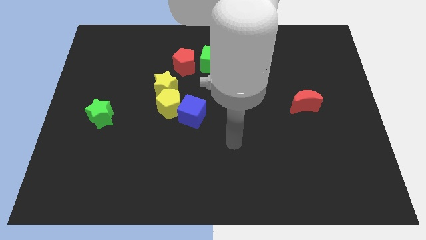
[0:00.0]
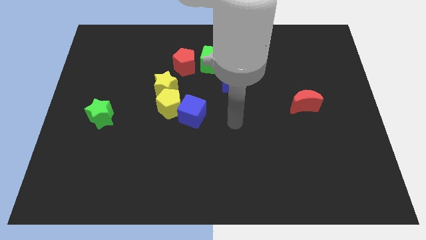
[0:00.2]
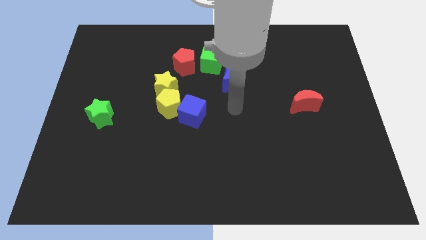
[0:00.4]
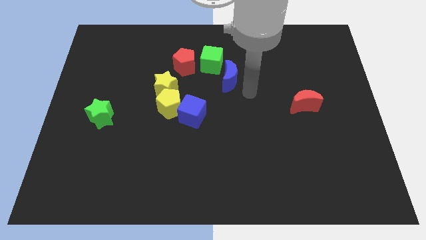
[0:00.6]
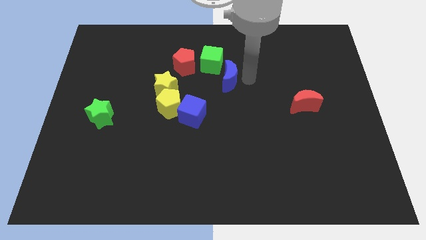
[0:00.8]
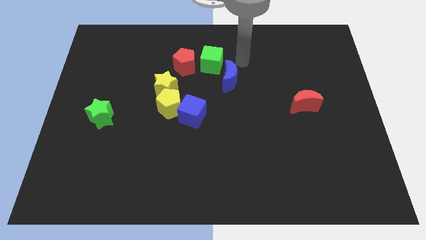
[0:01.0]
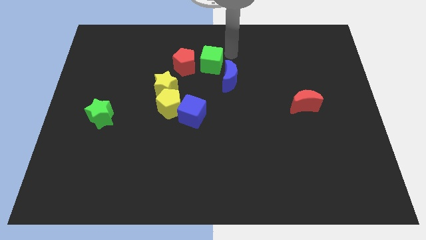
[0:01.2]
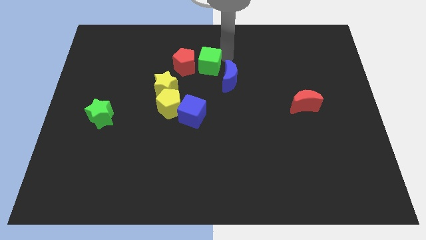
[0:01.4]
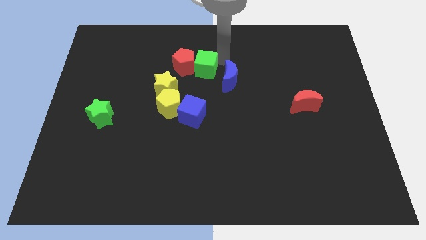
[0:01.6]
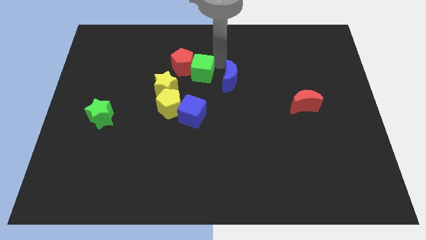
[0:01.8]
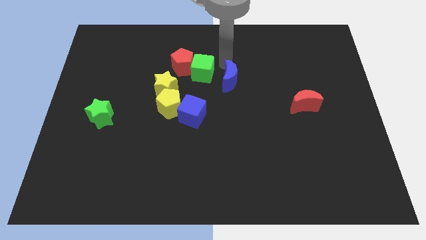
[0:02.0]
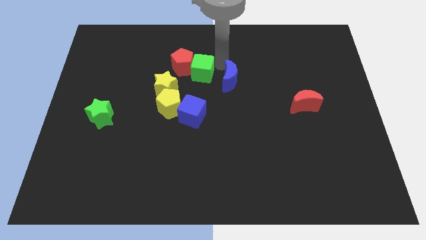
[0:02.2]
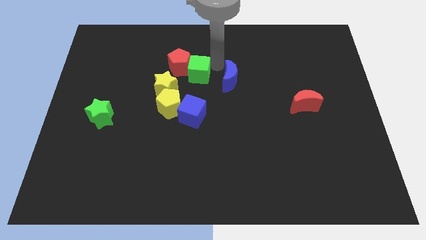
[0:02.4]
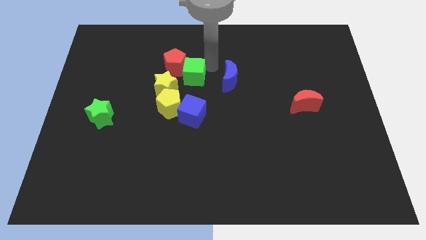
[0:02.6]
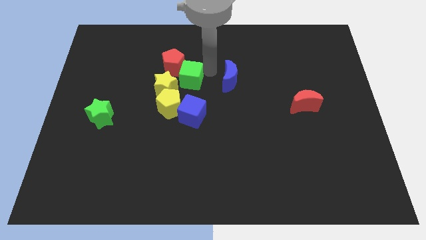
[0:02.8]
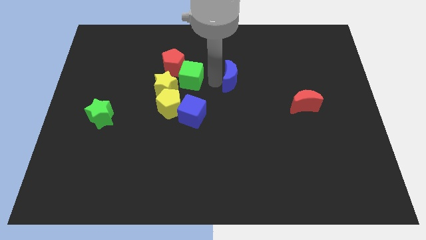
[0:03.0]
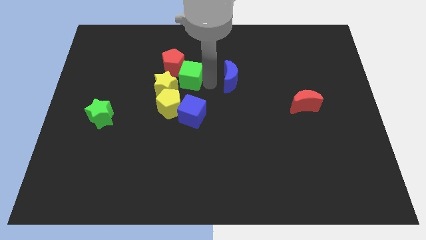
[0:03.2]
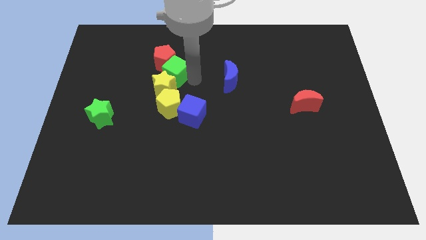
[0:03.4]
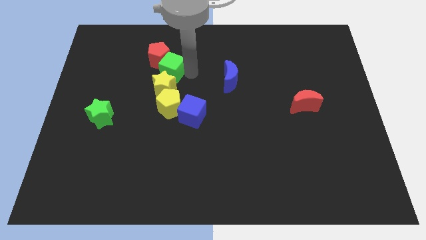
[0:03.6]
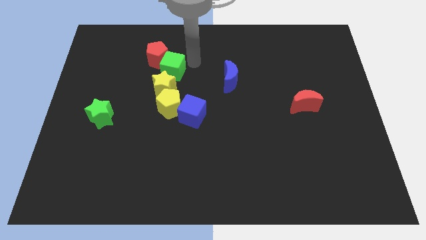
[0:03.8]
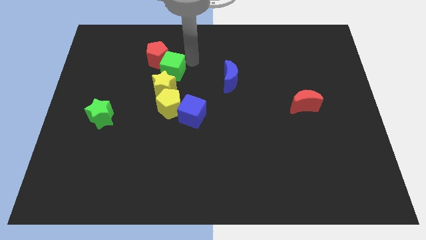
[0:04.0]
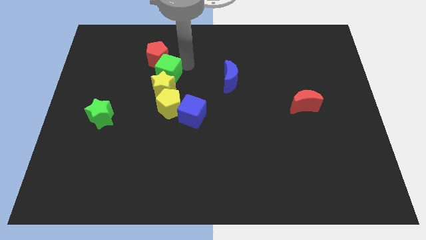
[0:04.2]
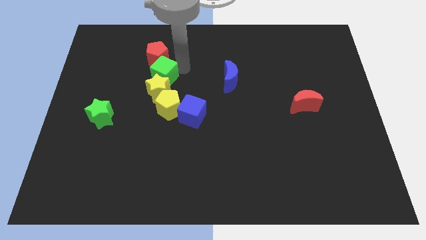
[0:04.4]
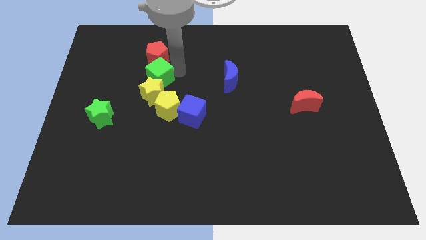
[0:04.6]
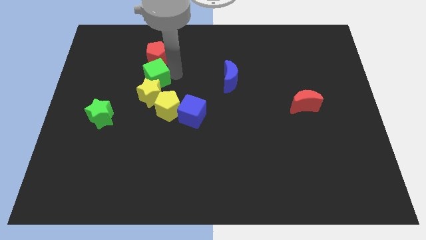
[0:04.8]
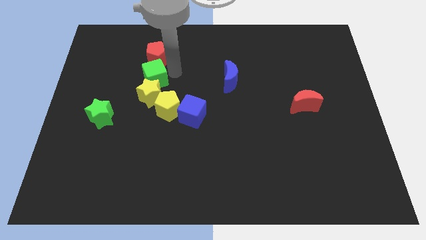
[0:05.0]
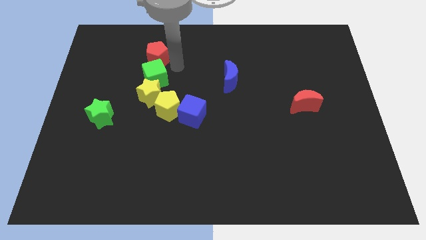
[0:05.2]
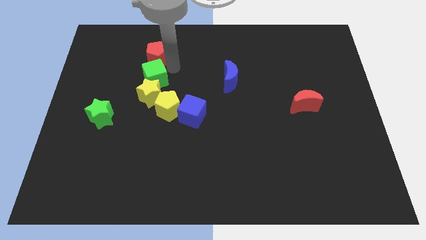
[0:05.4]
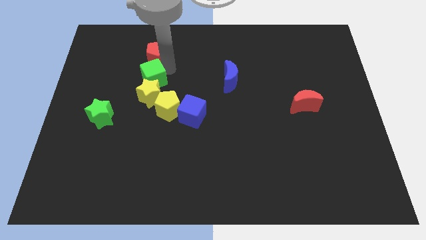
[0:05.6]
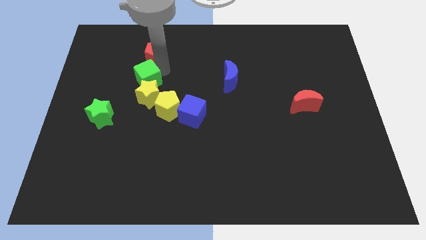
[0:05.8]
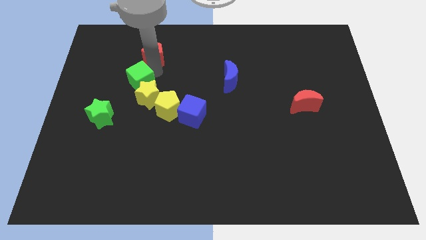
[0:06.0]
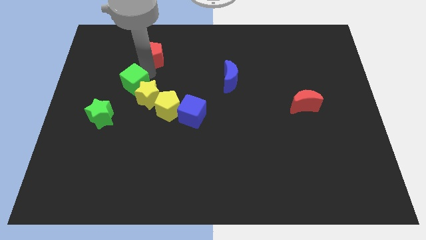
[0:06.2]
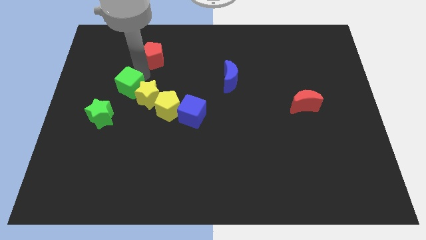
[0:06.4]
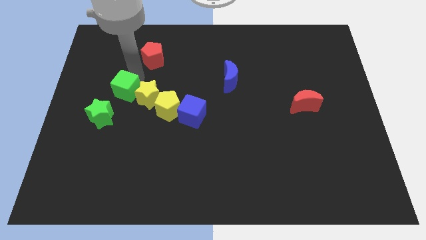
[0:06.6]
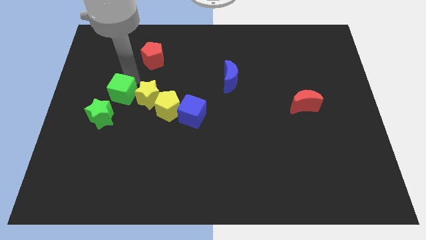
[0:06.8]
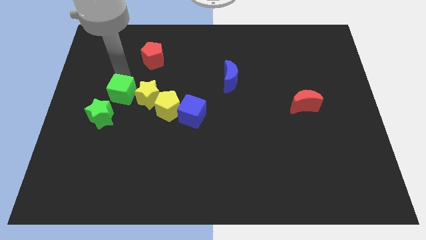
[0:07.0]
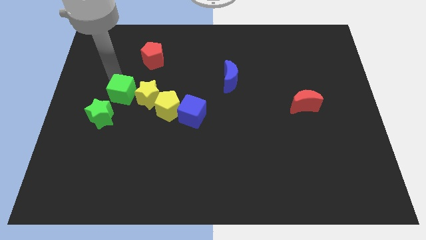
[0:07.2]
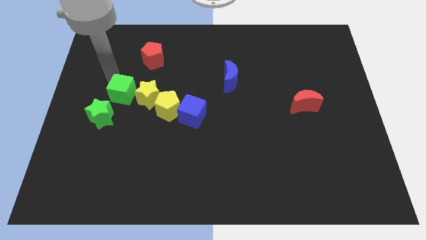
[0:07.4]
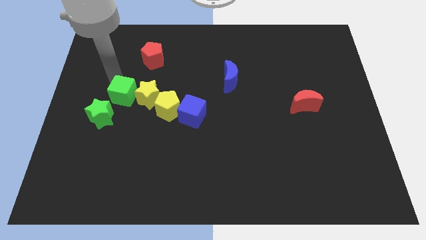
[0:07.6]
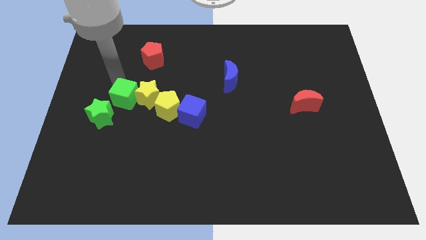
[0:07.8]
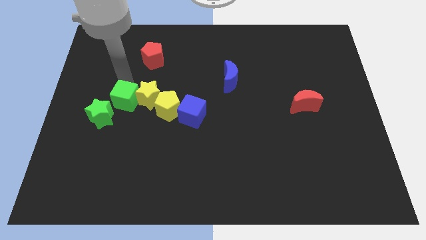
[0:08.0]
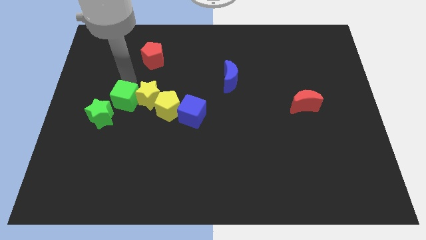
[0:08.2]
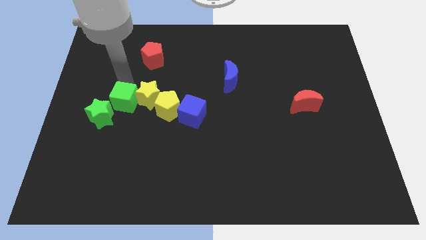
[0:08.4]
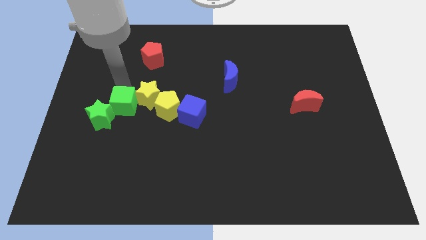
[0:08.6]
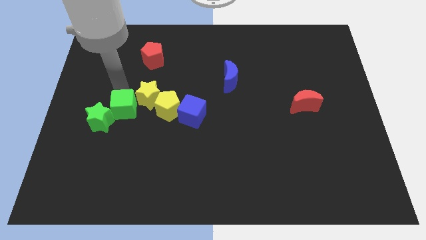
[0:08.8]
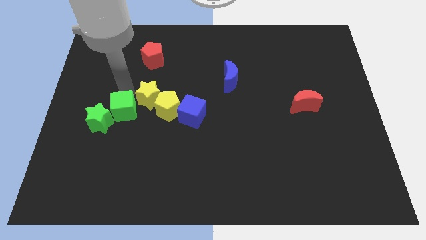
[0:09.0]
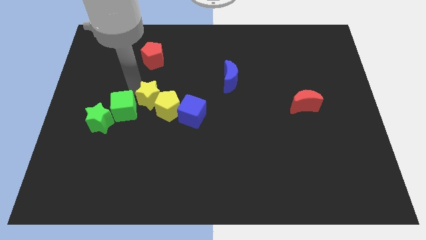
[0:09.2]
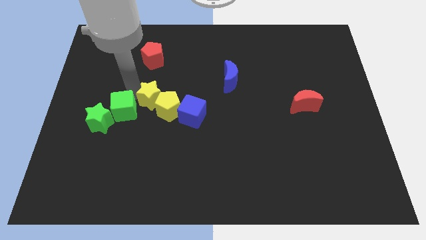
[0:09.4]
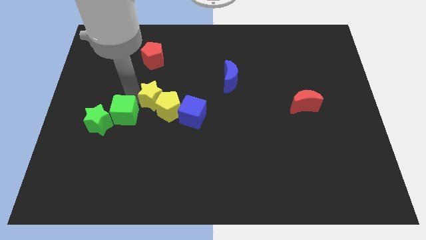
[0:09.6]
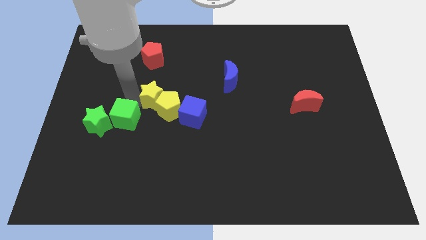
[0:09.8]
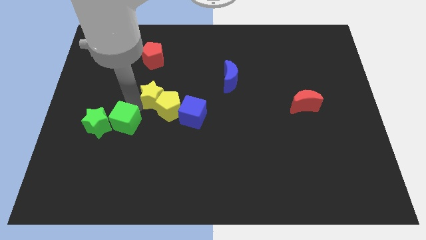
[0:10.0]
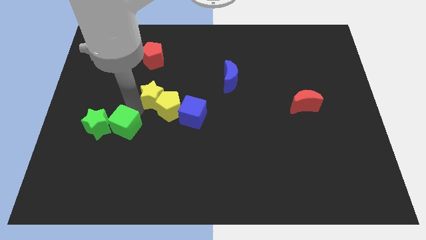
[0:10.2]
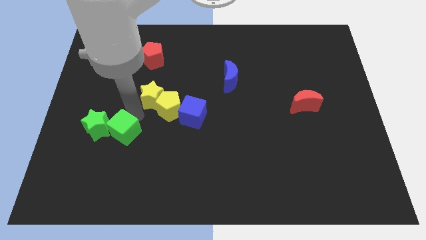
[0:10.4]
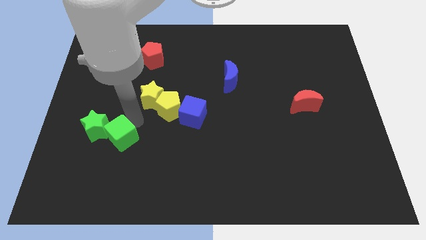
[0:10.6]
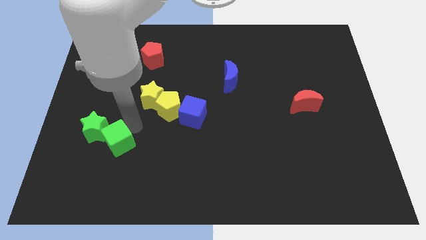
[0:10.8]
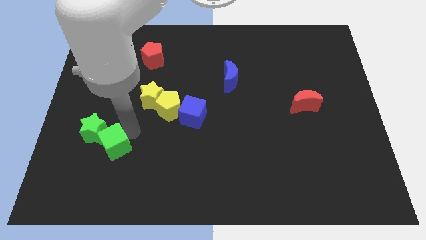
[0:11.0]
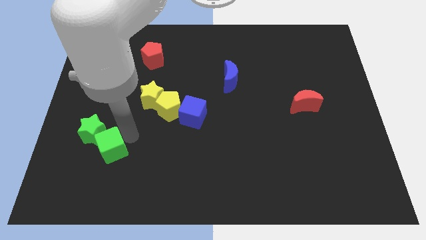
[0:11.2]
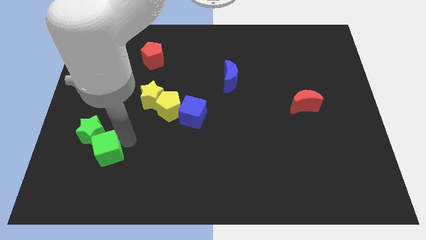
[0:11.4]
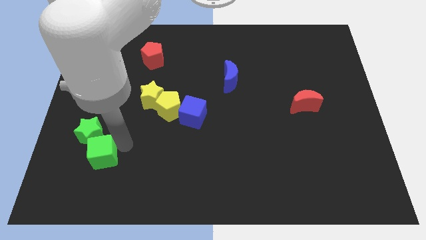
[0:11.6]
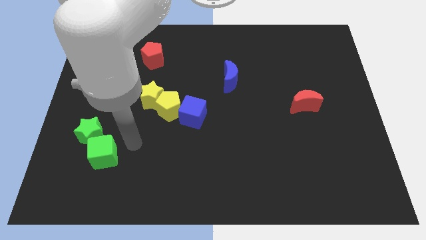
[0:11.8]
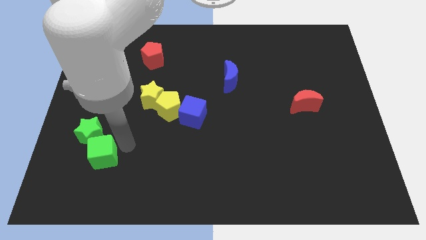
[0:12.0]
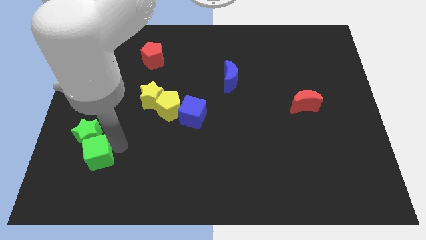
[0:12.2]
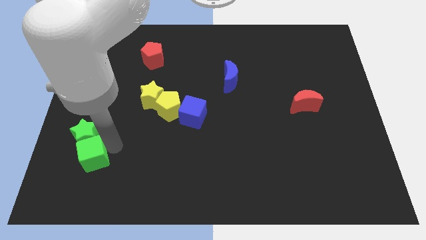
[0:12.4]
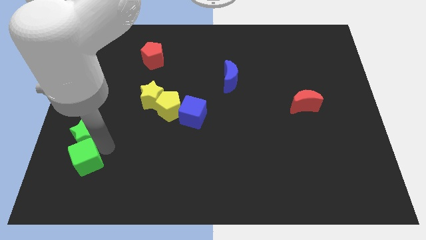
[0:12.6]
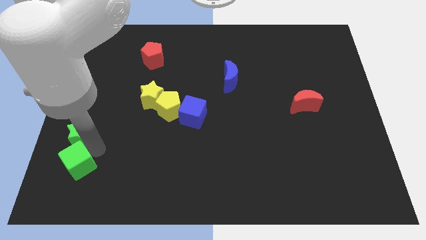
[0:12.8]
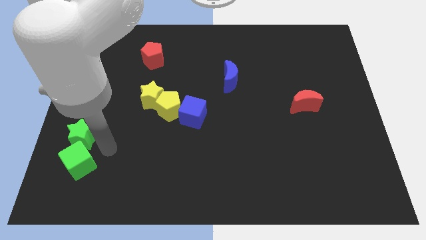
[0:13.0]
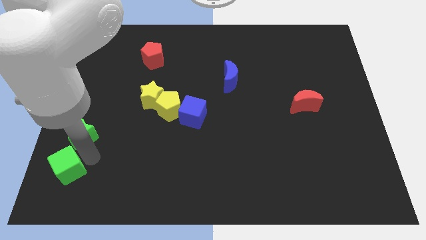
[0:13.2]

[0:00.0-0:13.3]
put the green cube to the lower left corner
